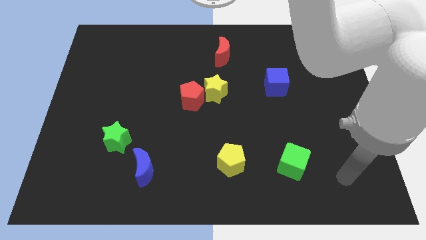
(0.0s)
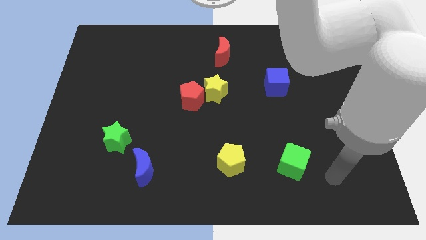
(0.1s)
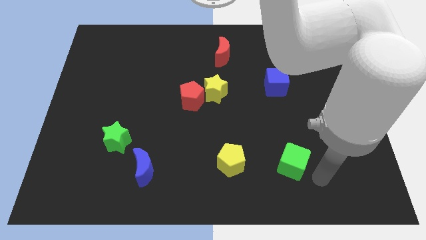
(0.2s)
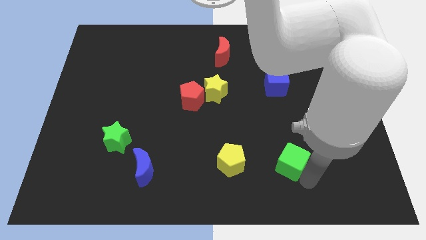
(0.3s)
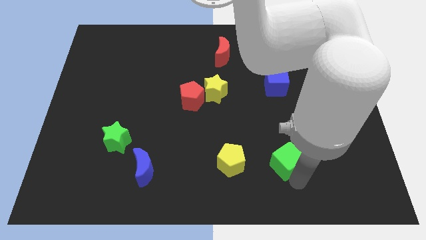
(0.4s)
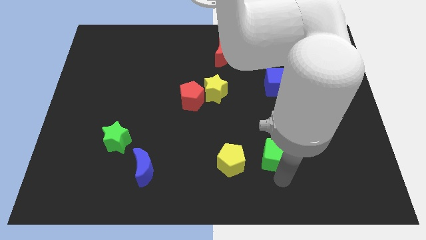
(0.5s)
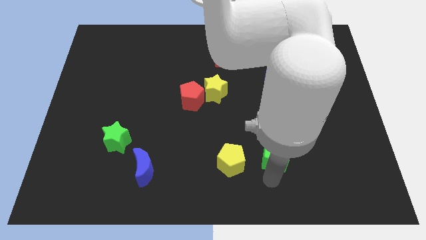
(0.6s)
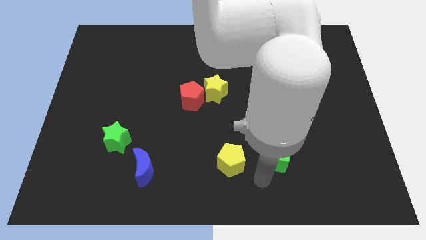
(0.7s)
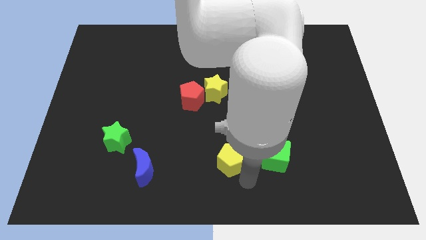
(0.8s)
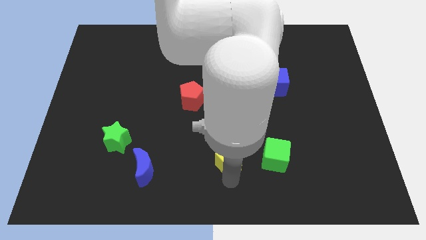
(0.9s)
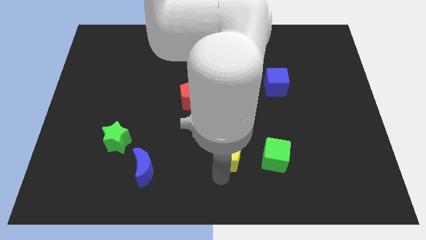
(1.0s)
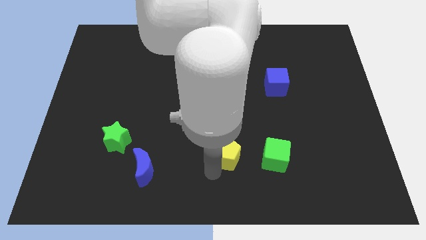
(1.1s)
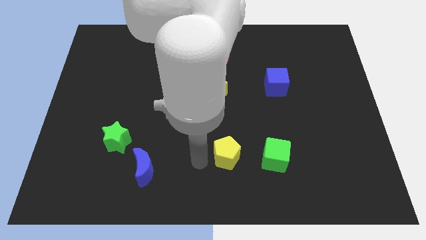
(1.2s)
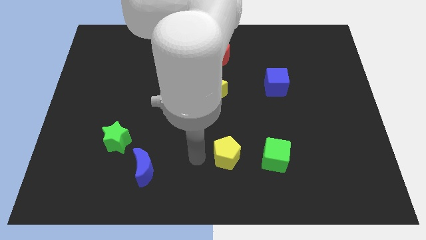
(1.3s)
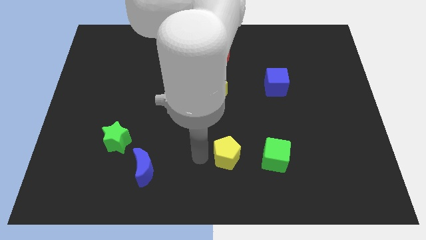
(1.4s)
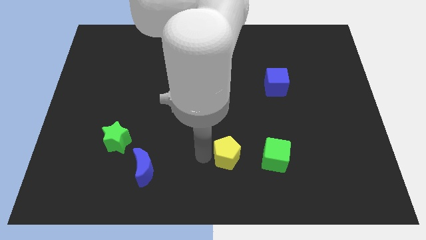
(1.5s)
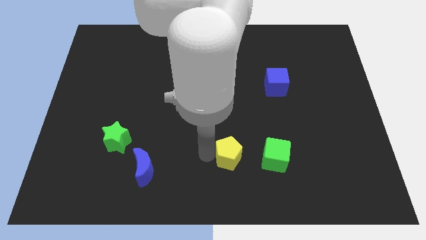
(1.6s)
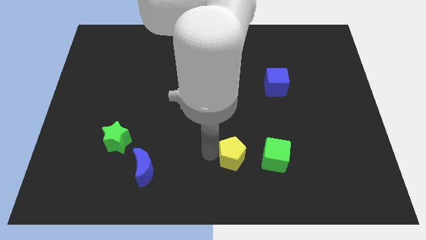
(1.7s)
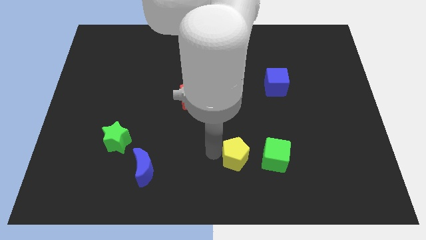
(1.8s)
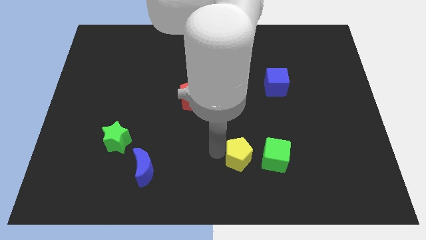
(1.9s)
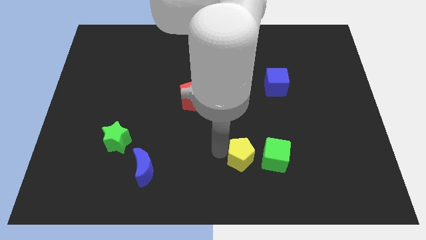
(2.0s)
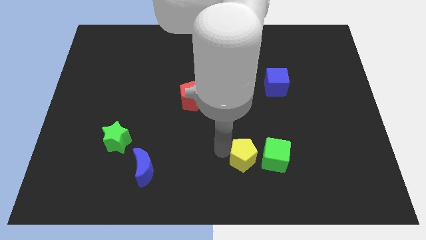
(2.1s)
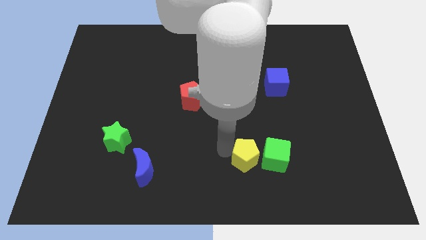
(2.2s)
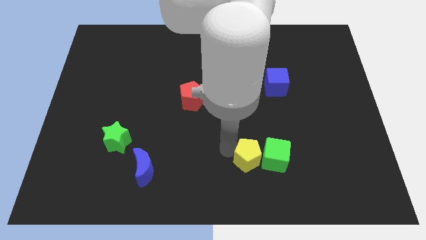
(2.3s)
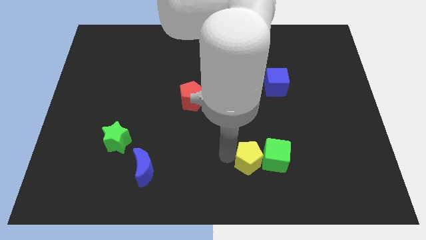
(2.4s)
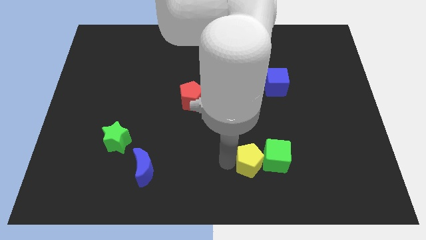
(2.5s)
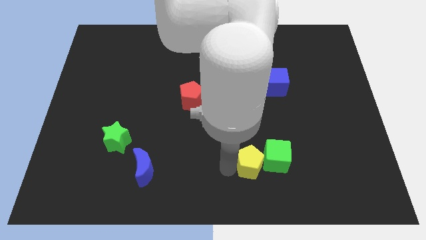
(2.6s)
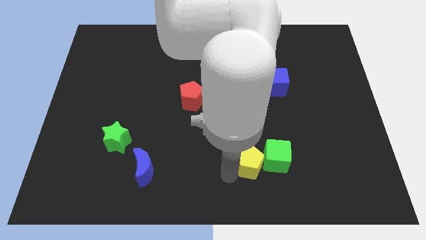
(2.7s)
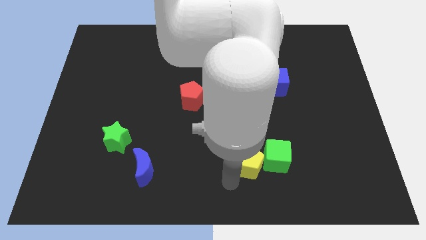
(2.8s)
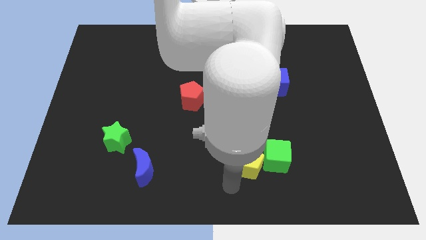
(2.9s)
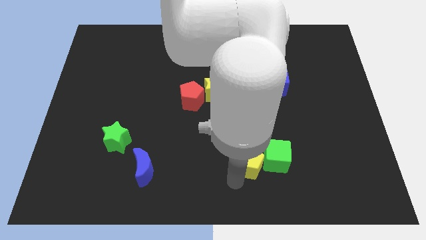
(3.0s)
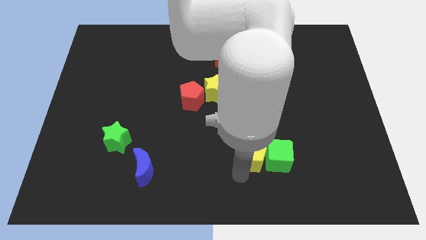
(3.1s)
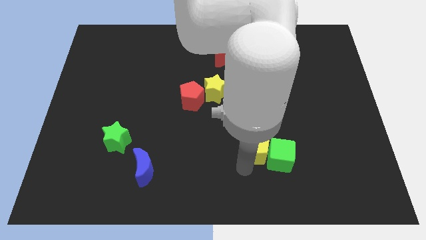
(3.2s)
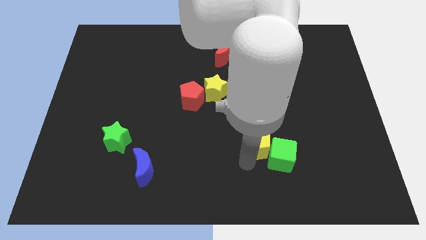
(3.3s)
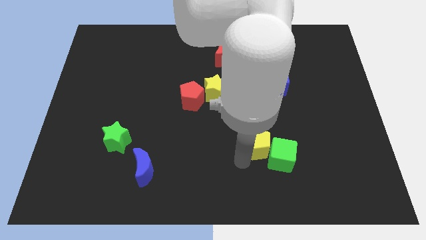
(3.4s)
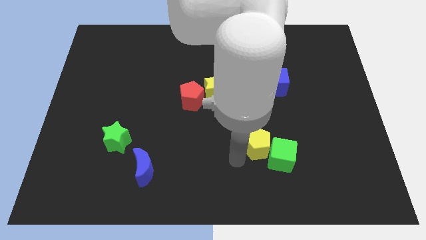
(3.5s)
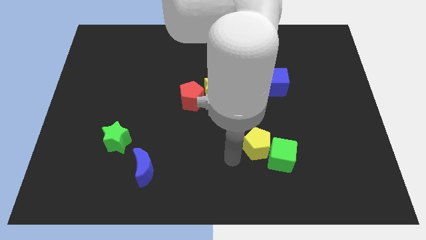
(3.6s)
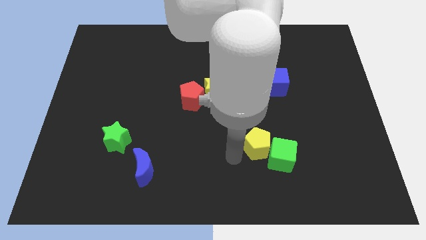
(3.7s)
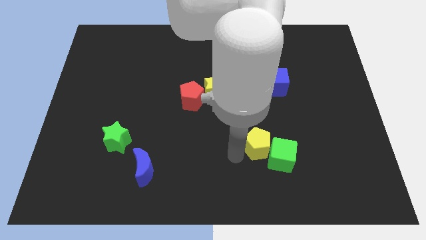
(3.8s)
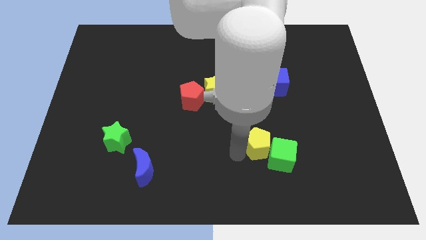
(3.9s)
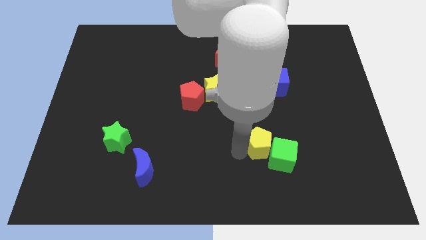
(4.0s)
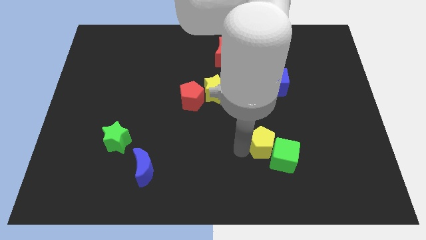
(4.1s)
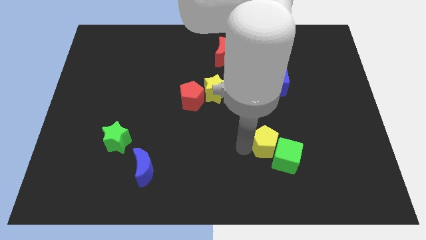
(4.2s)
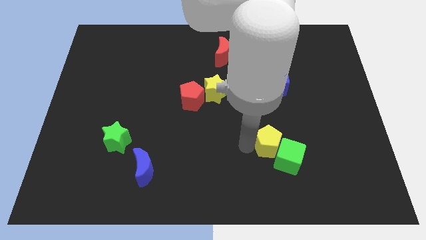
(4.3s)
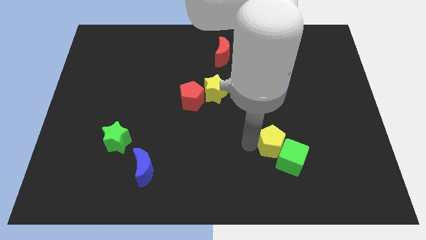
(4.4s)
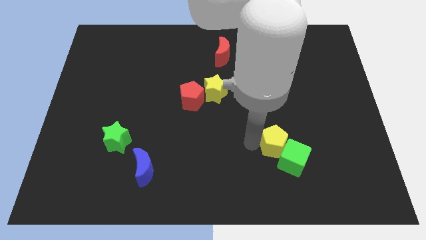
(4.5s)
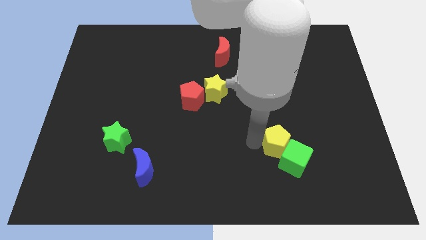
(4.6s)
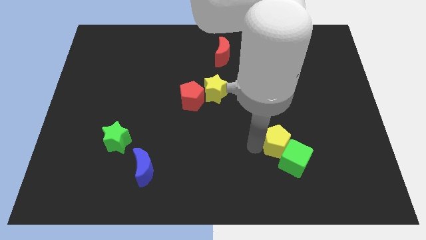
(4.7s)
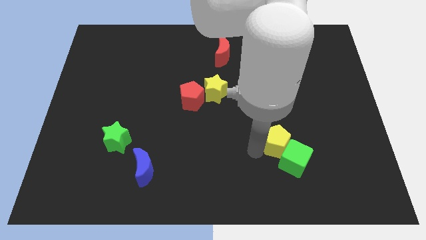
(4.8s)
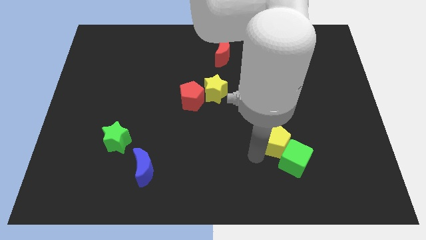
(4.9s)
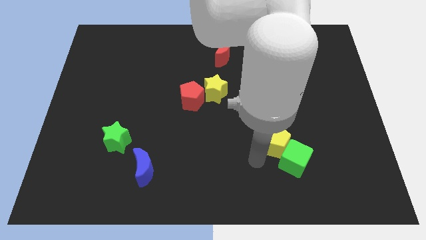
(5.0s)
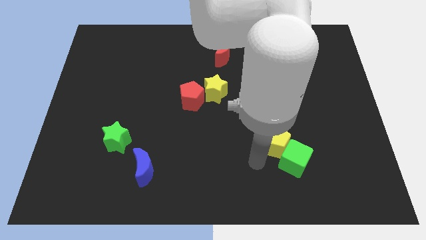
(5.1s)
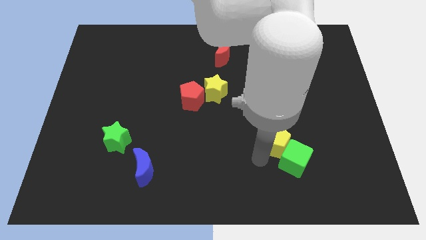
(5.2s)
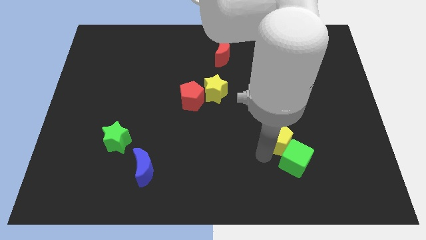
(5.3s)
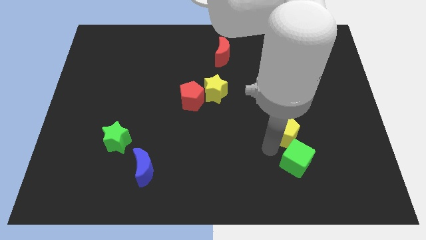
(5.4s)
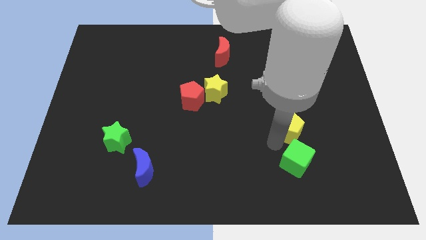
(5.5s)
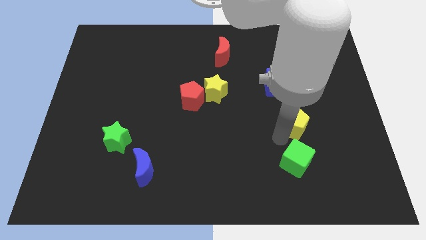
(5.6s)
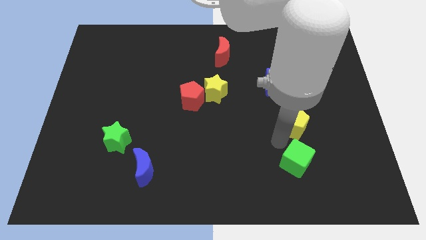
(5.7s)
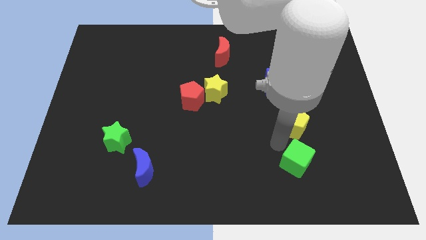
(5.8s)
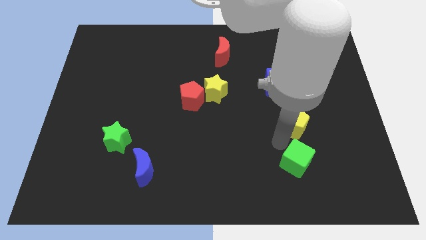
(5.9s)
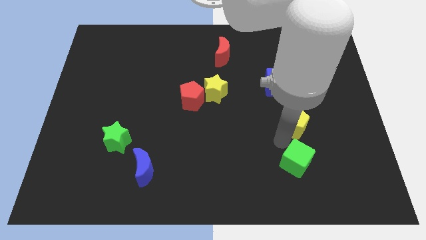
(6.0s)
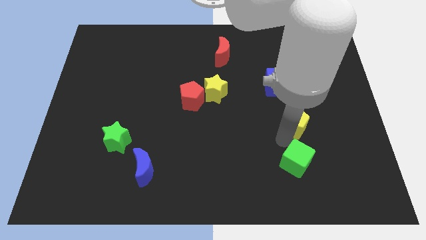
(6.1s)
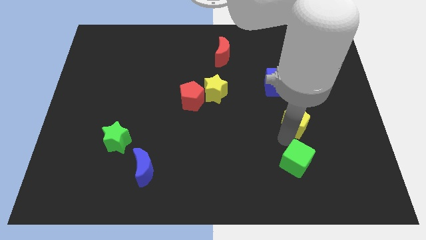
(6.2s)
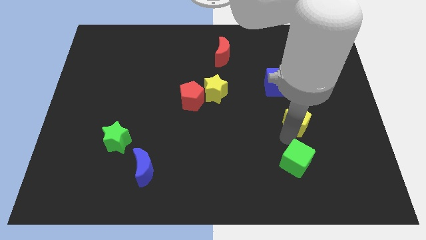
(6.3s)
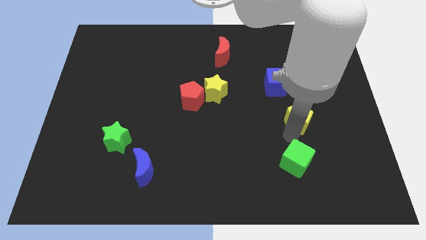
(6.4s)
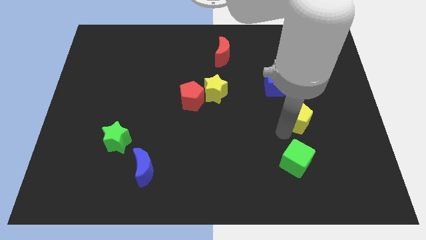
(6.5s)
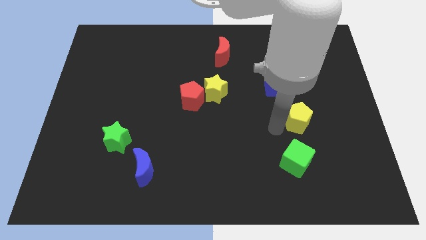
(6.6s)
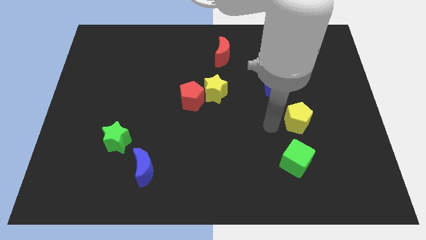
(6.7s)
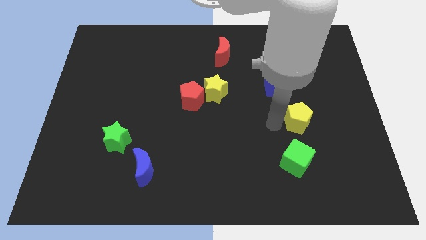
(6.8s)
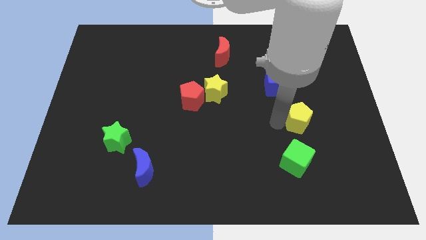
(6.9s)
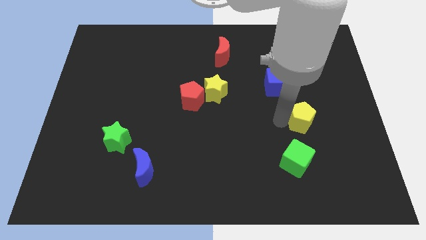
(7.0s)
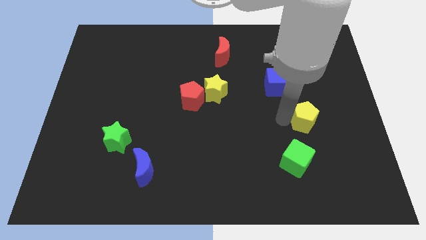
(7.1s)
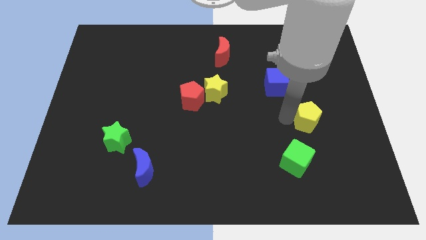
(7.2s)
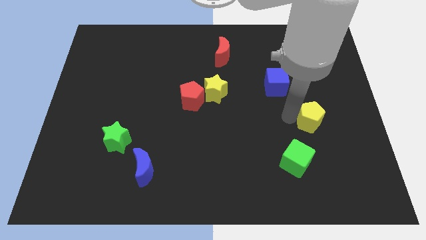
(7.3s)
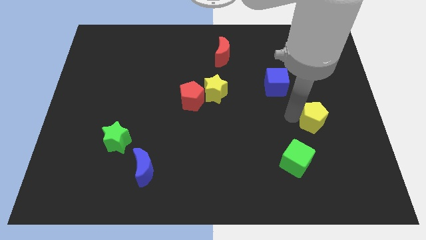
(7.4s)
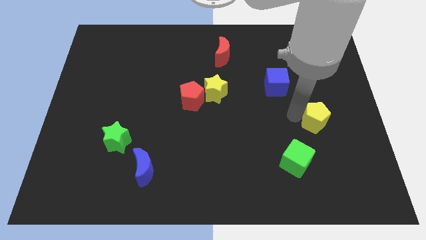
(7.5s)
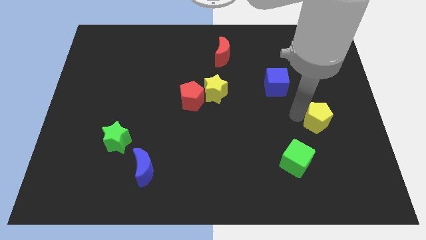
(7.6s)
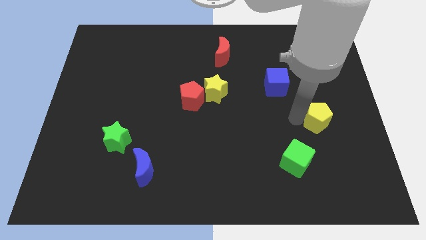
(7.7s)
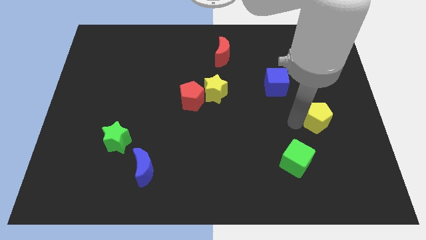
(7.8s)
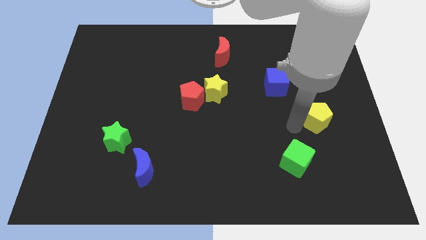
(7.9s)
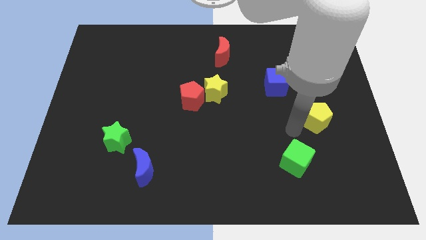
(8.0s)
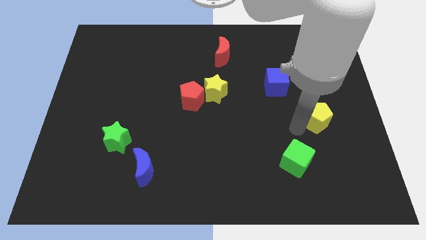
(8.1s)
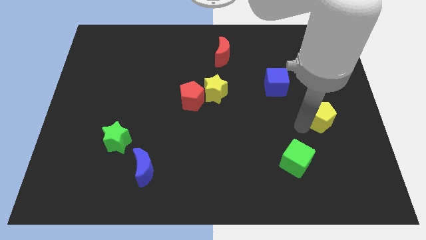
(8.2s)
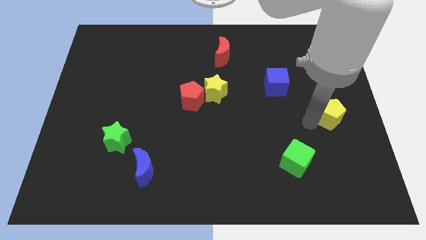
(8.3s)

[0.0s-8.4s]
move the yellow pentagon to the right side
